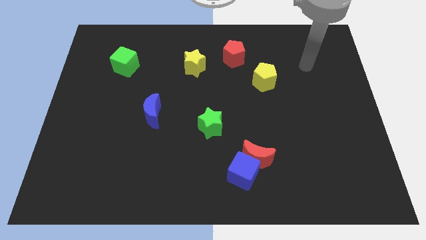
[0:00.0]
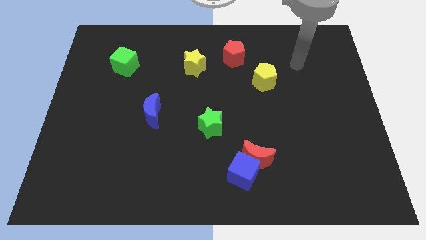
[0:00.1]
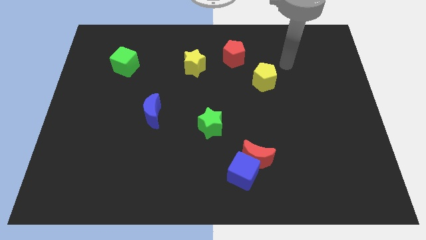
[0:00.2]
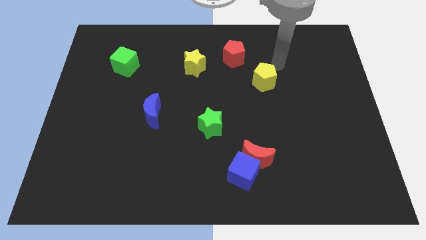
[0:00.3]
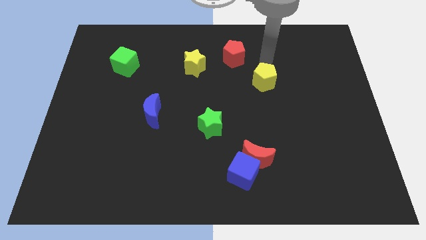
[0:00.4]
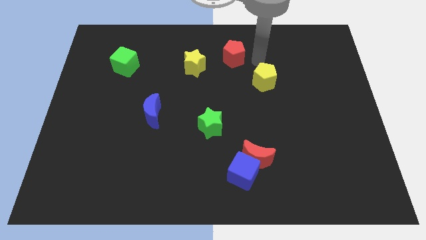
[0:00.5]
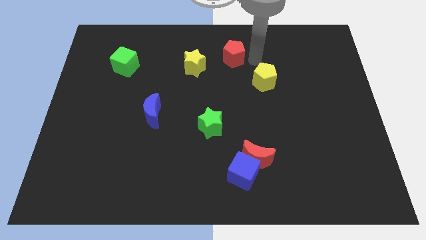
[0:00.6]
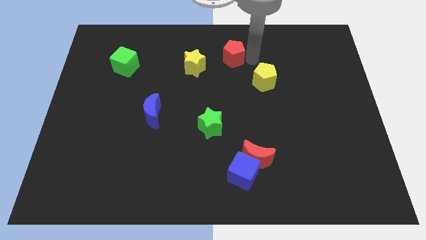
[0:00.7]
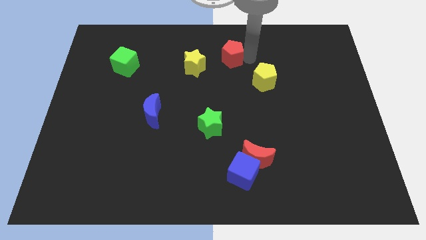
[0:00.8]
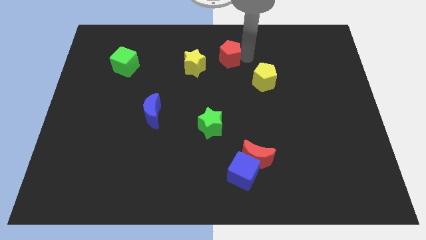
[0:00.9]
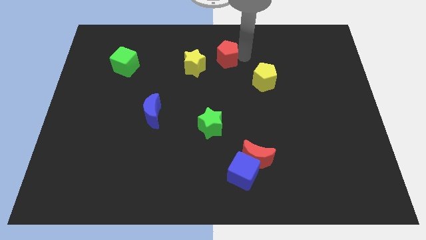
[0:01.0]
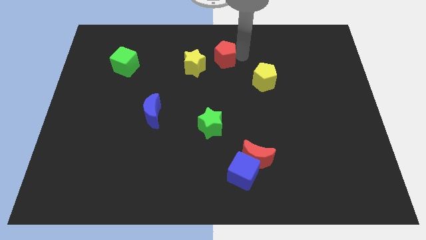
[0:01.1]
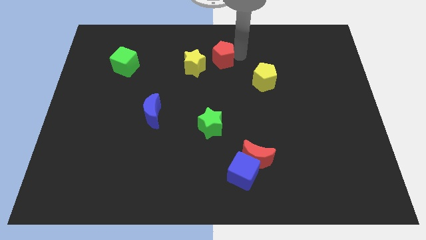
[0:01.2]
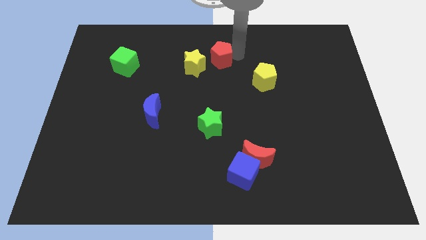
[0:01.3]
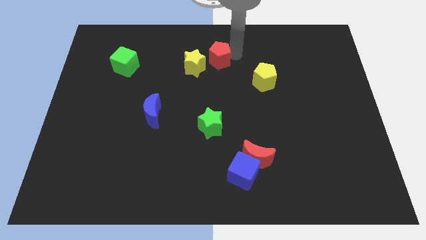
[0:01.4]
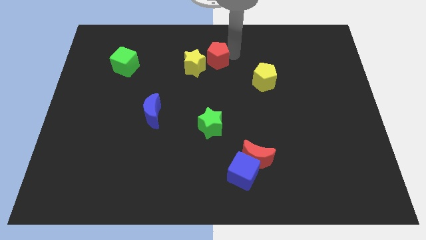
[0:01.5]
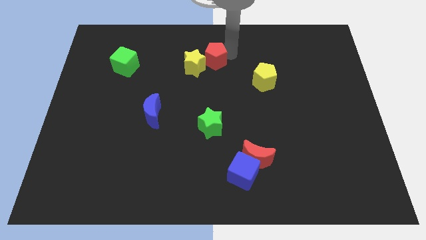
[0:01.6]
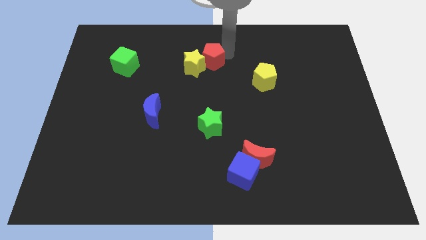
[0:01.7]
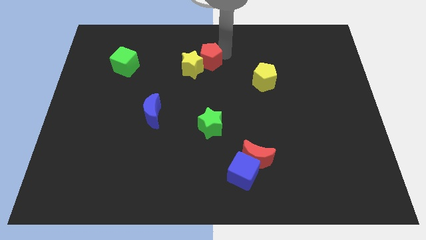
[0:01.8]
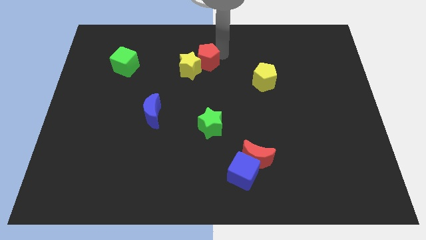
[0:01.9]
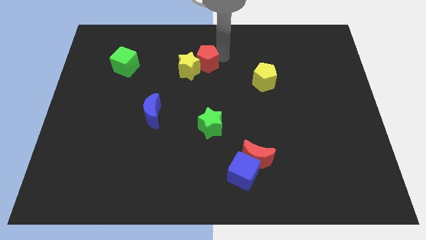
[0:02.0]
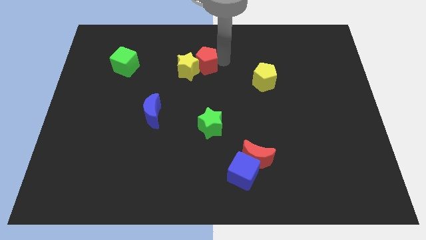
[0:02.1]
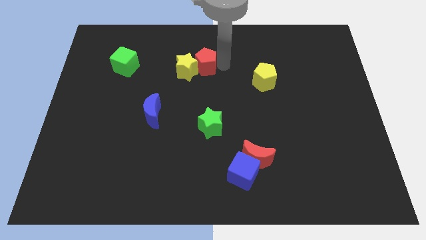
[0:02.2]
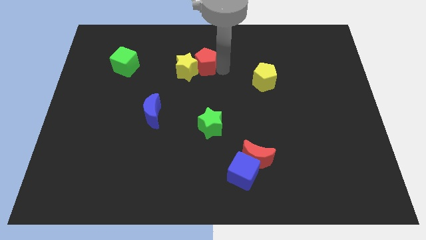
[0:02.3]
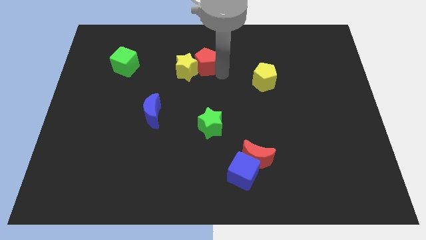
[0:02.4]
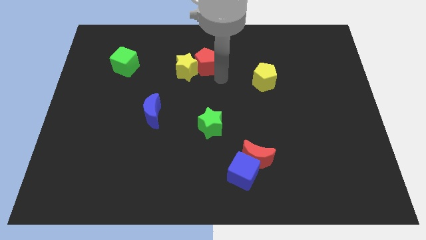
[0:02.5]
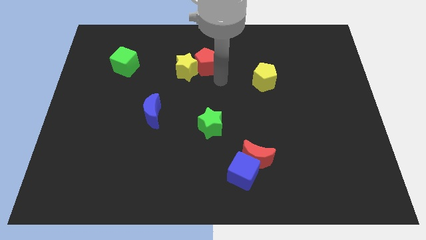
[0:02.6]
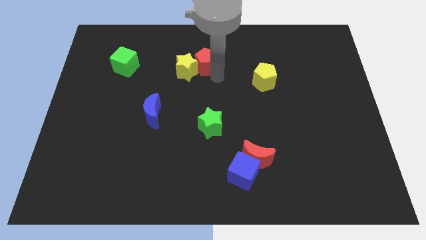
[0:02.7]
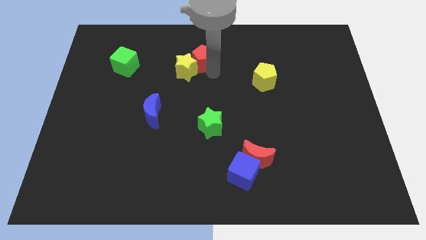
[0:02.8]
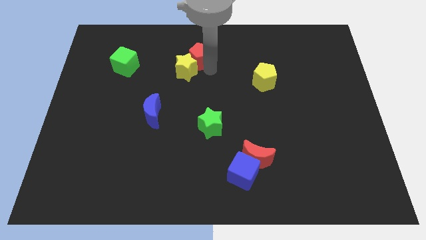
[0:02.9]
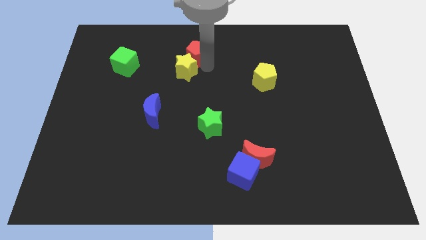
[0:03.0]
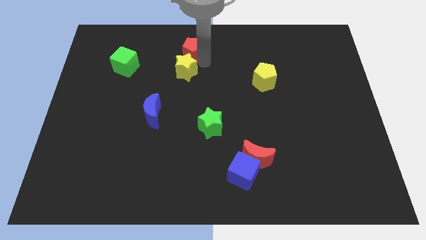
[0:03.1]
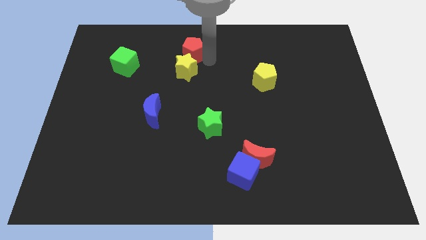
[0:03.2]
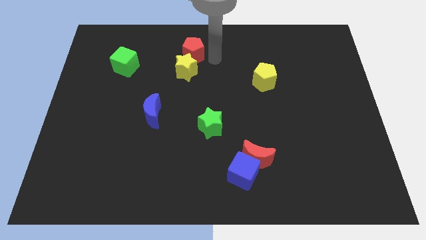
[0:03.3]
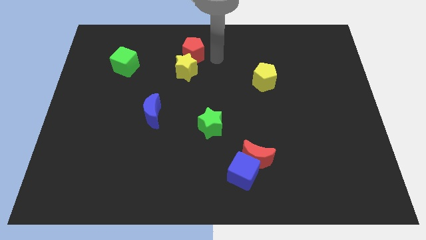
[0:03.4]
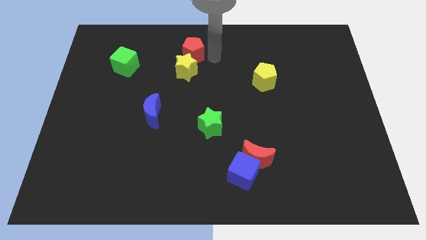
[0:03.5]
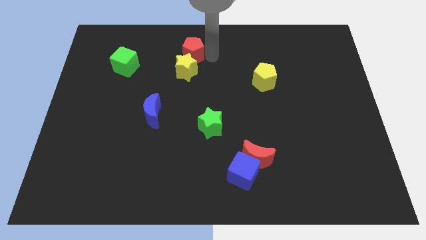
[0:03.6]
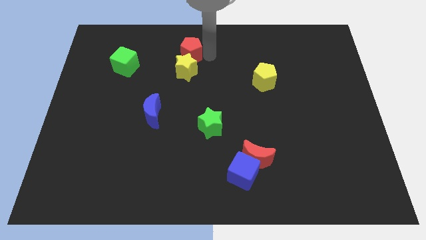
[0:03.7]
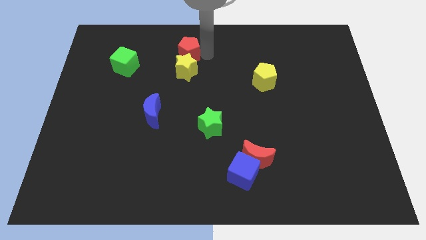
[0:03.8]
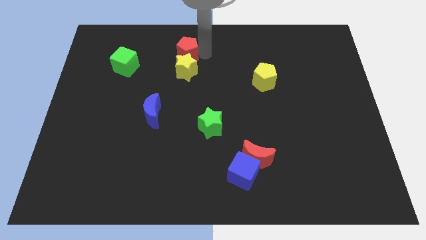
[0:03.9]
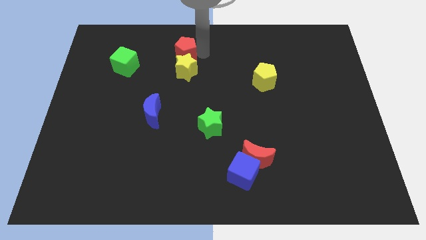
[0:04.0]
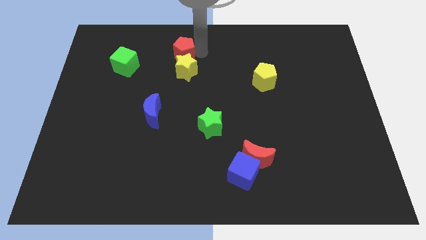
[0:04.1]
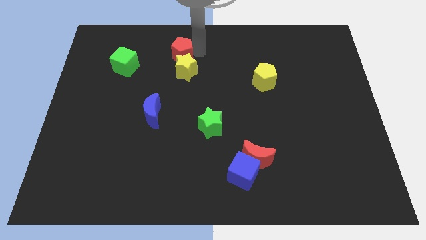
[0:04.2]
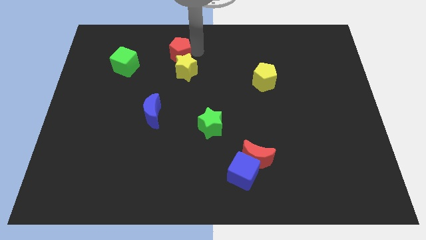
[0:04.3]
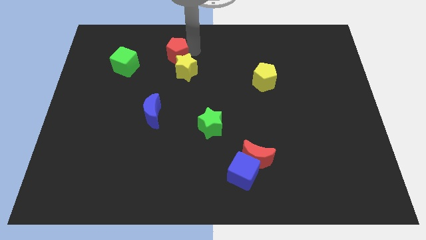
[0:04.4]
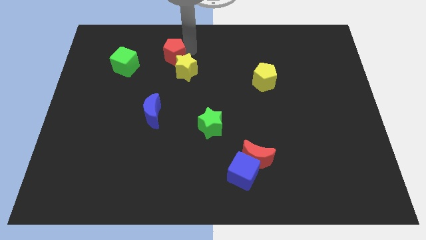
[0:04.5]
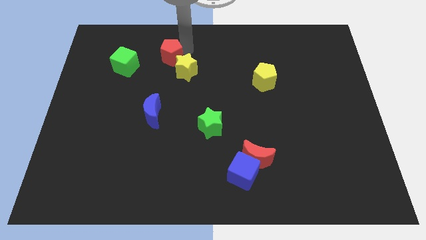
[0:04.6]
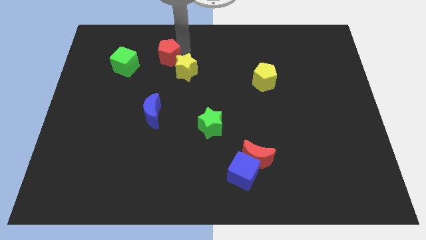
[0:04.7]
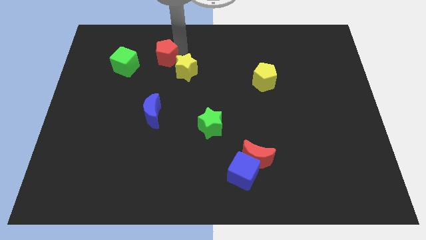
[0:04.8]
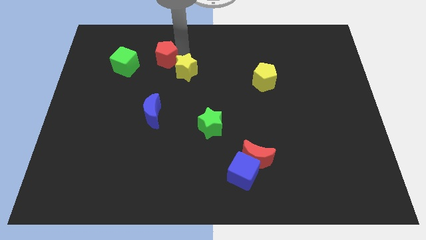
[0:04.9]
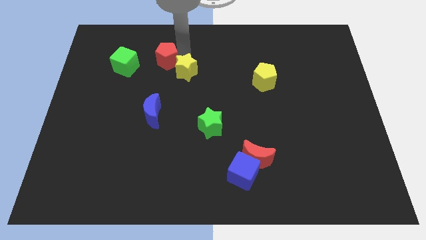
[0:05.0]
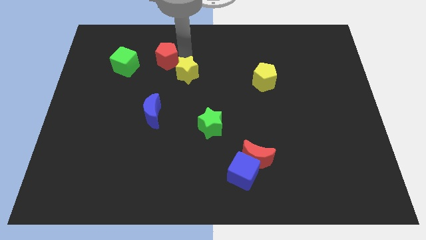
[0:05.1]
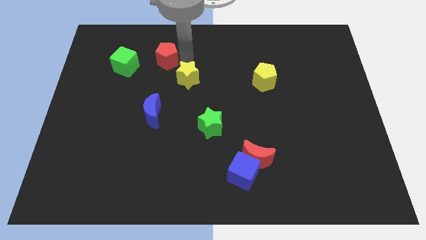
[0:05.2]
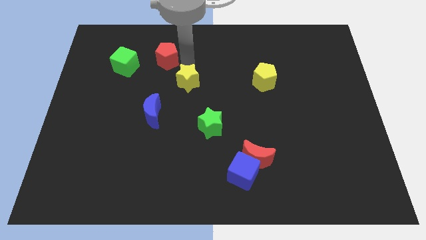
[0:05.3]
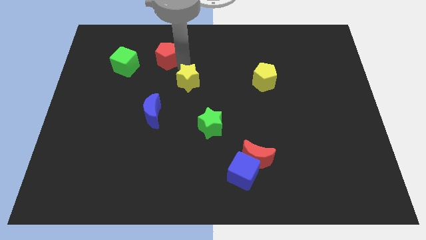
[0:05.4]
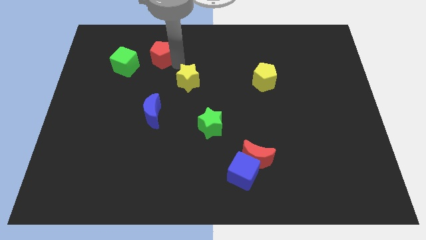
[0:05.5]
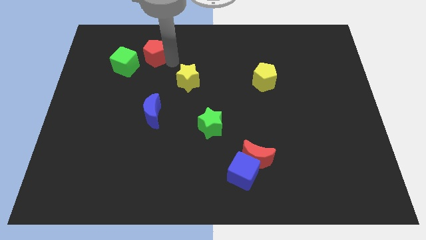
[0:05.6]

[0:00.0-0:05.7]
move the red pentagon left

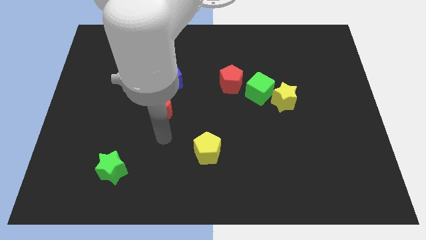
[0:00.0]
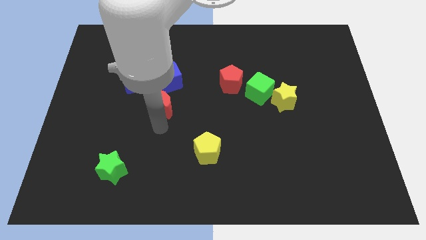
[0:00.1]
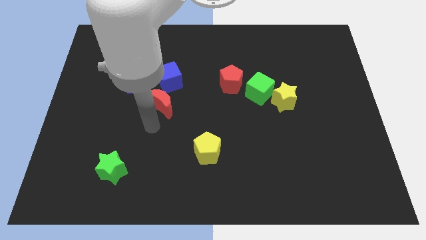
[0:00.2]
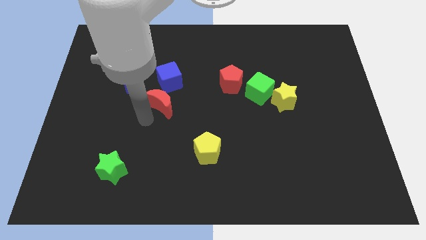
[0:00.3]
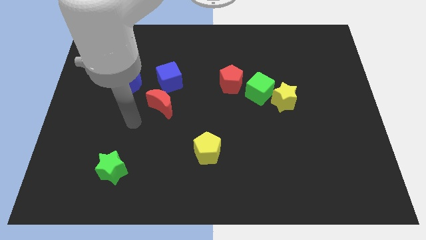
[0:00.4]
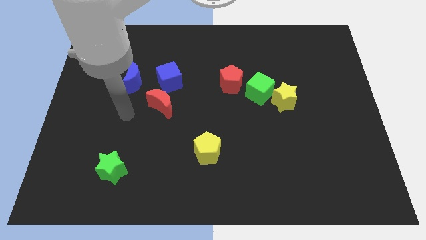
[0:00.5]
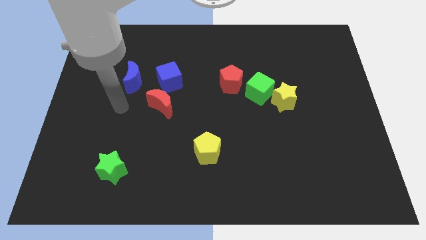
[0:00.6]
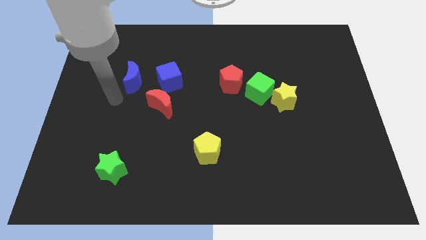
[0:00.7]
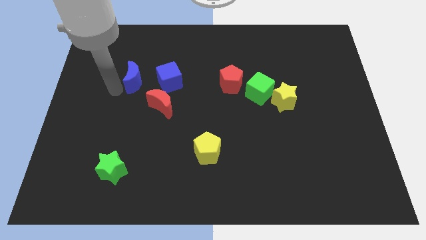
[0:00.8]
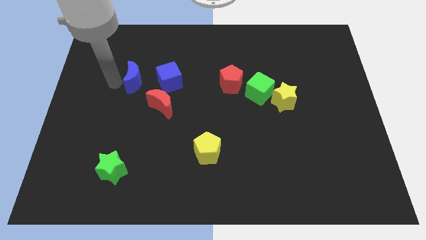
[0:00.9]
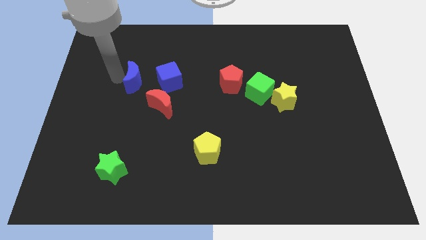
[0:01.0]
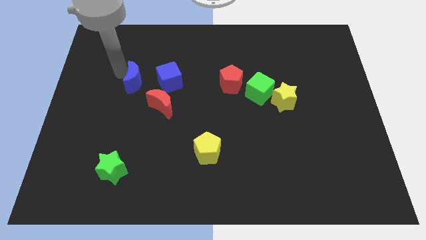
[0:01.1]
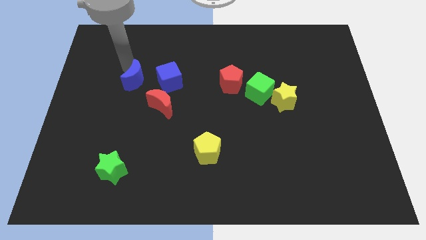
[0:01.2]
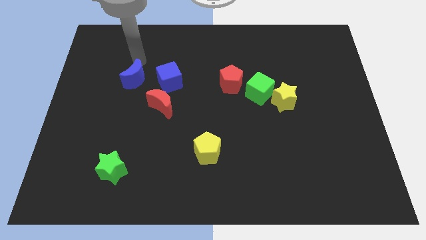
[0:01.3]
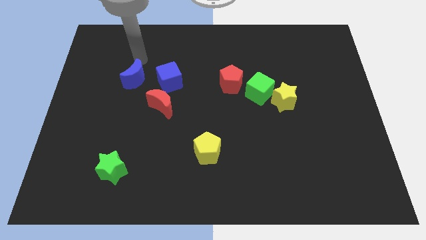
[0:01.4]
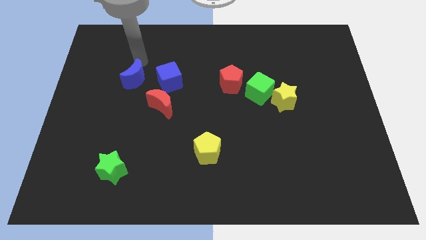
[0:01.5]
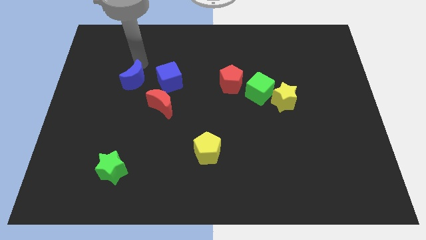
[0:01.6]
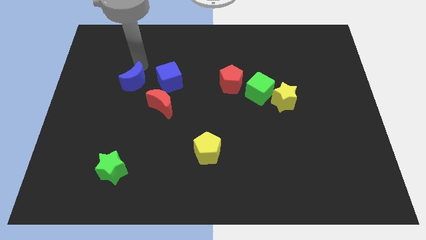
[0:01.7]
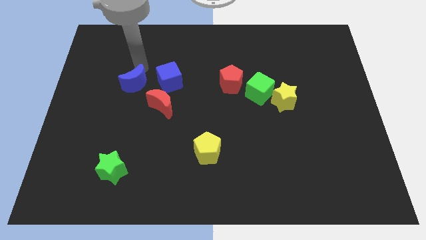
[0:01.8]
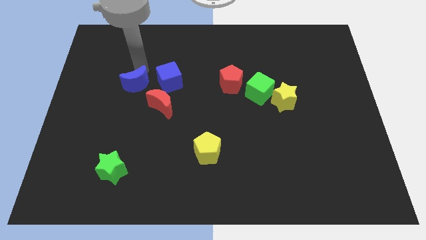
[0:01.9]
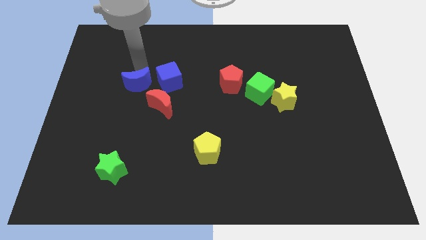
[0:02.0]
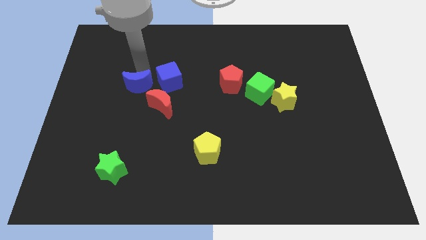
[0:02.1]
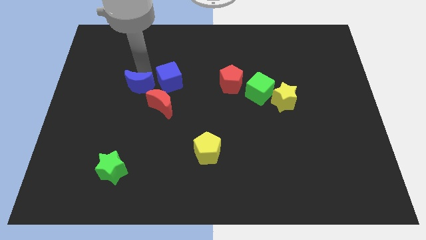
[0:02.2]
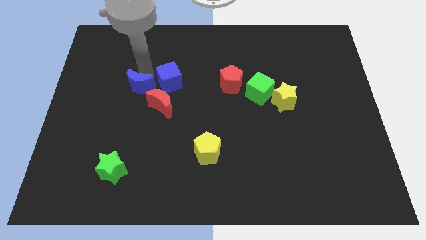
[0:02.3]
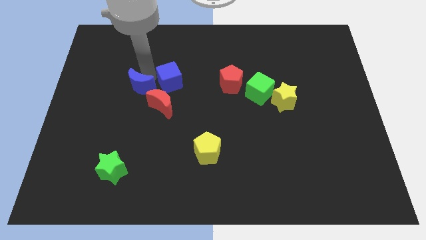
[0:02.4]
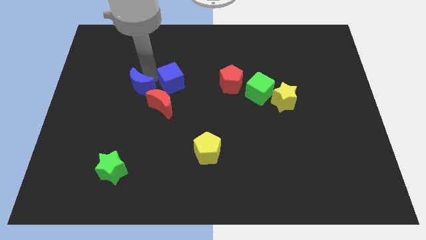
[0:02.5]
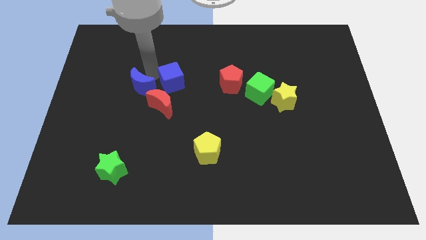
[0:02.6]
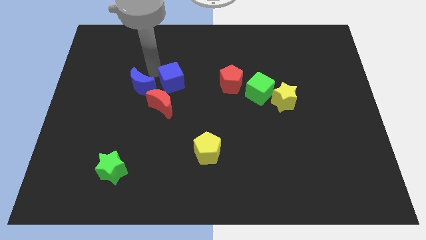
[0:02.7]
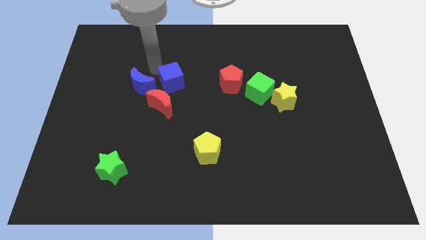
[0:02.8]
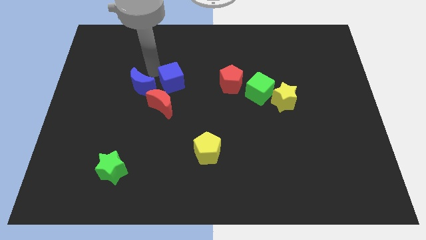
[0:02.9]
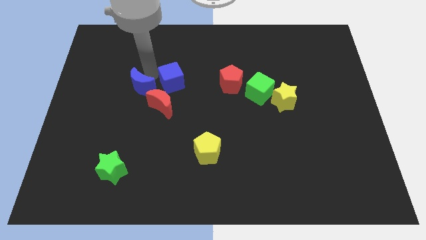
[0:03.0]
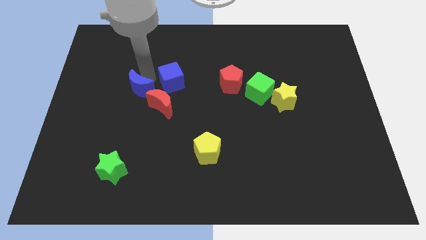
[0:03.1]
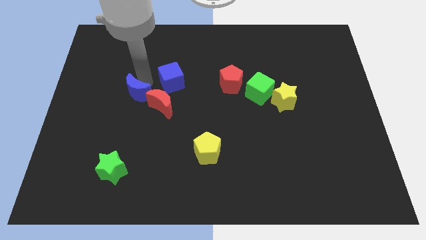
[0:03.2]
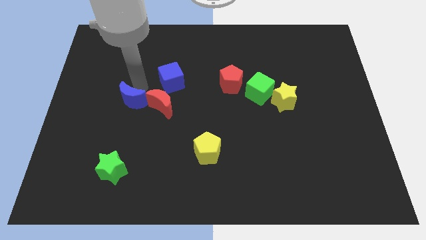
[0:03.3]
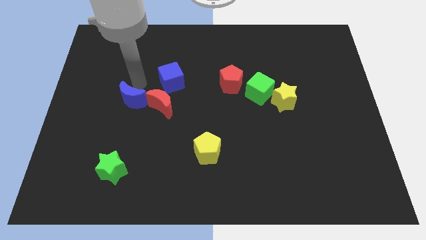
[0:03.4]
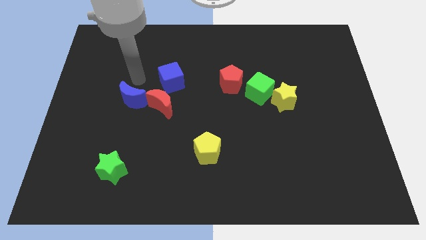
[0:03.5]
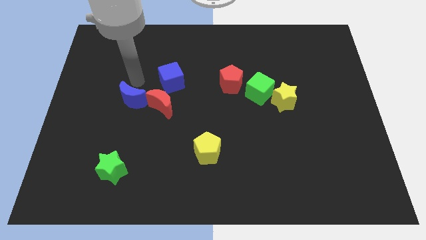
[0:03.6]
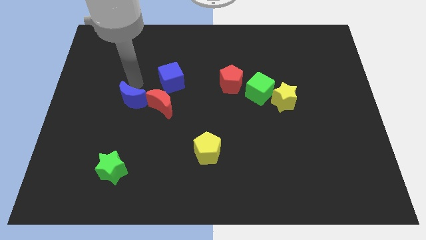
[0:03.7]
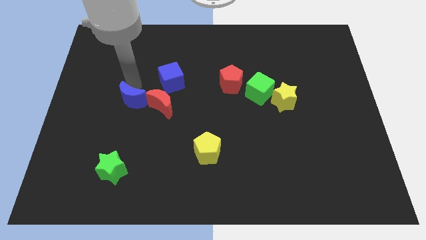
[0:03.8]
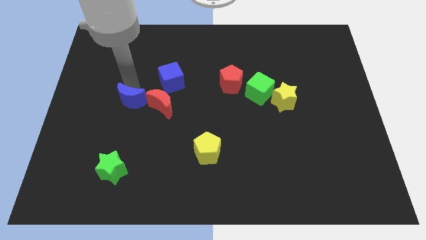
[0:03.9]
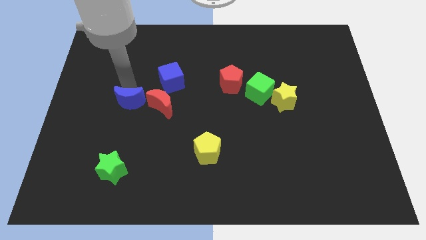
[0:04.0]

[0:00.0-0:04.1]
slide the blue moon somewhat down
